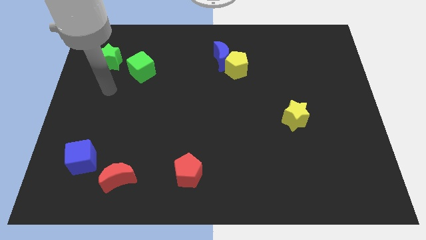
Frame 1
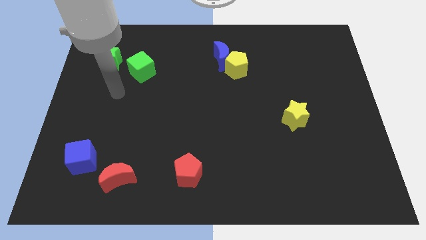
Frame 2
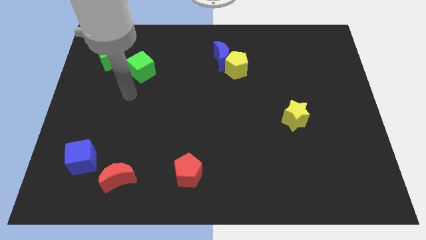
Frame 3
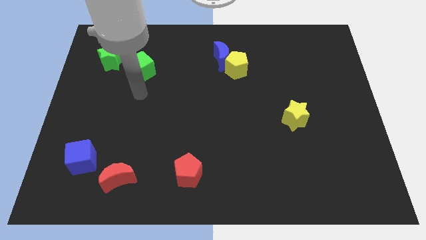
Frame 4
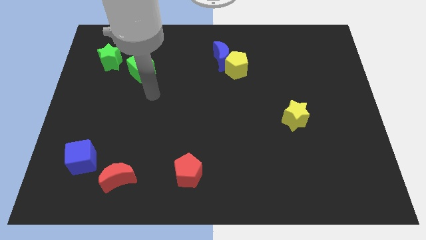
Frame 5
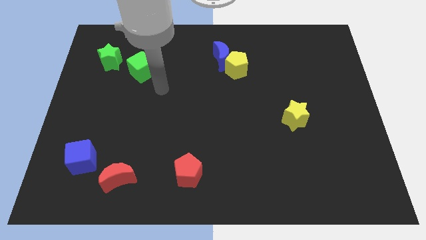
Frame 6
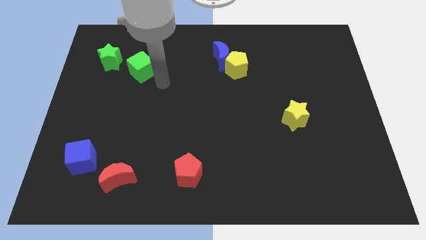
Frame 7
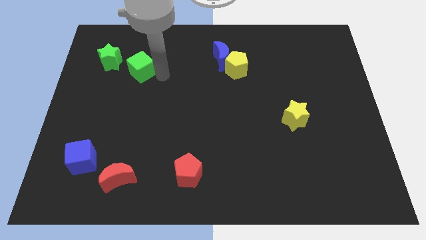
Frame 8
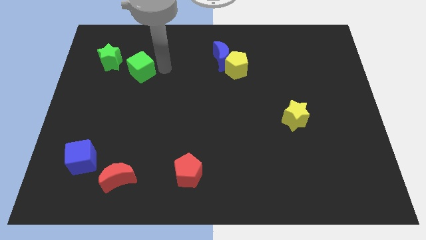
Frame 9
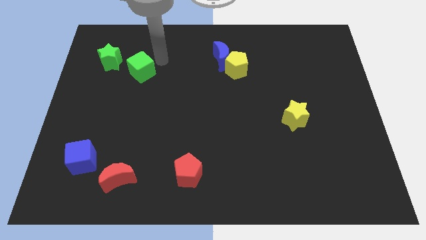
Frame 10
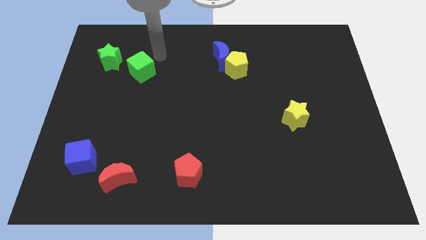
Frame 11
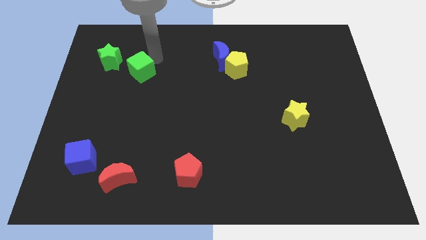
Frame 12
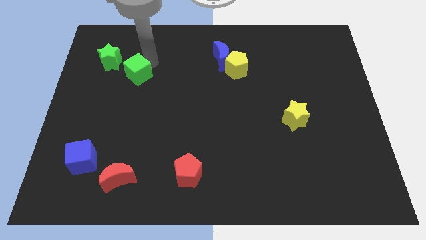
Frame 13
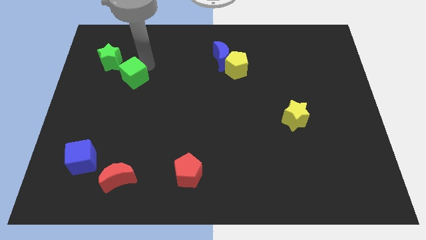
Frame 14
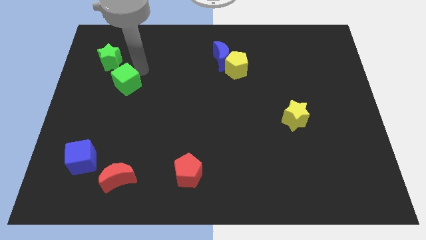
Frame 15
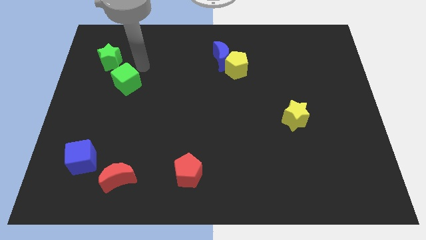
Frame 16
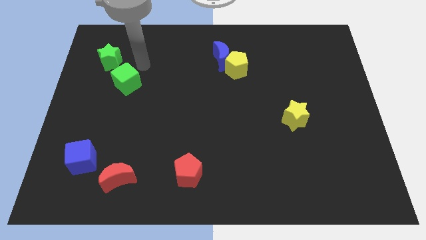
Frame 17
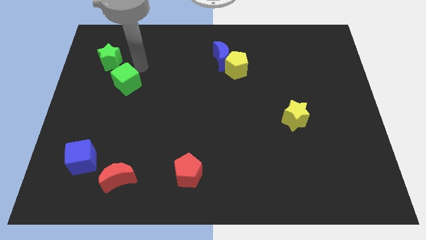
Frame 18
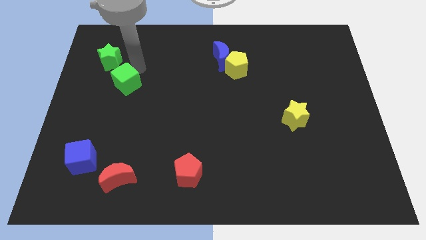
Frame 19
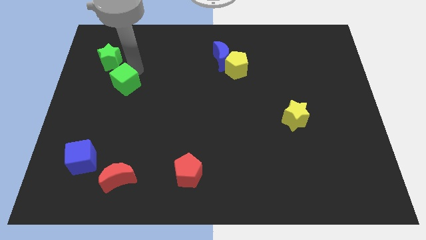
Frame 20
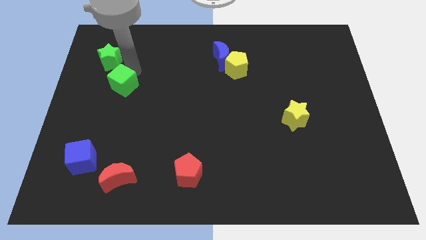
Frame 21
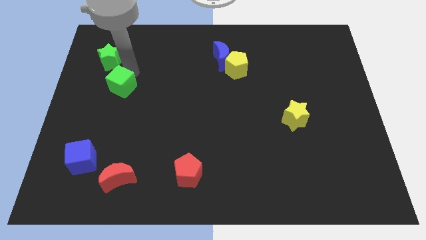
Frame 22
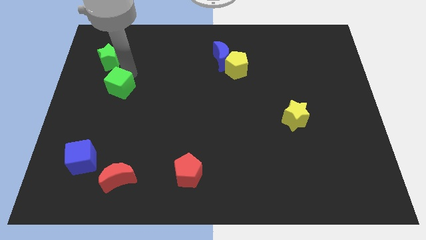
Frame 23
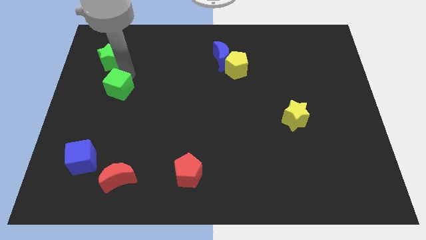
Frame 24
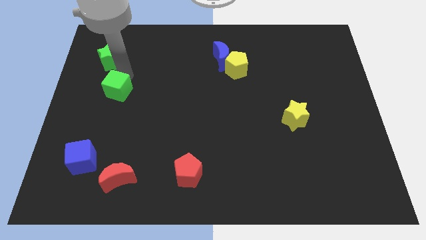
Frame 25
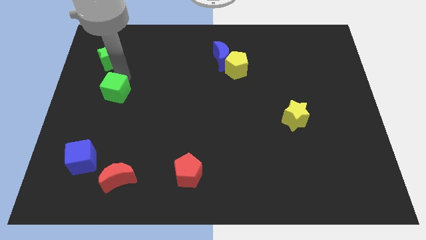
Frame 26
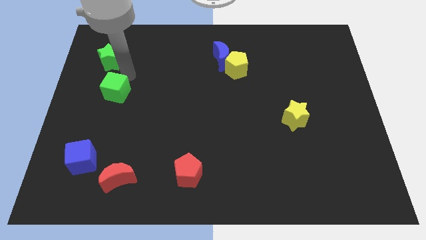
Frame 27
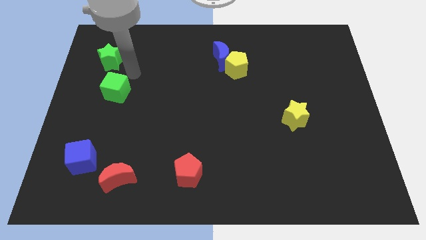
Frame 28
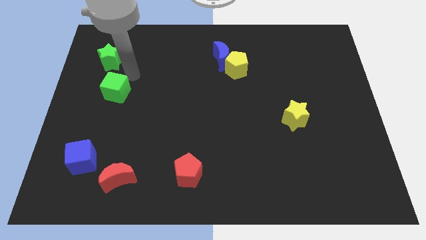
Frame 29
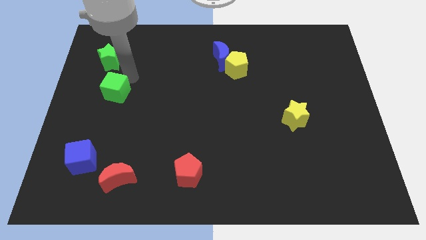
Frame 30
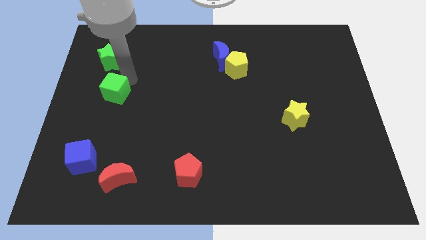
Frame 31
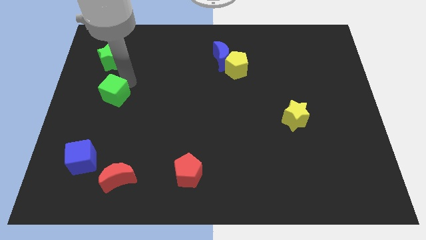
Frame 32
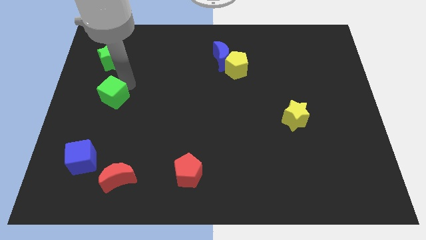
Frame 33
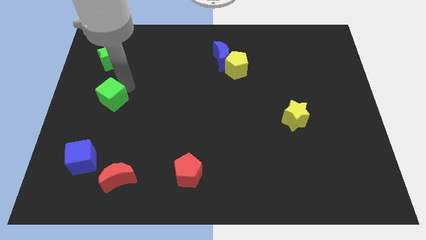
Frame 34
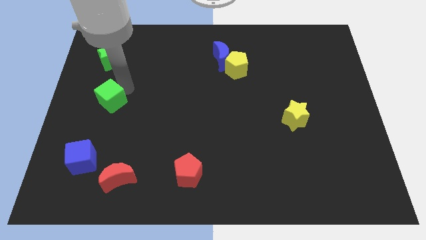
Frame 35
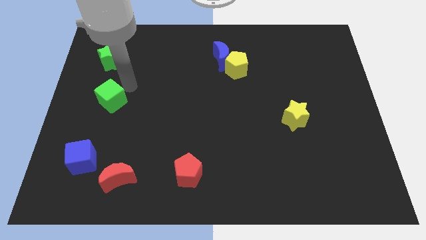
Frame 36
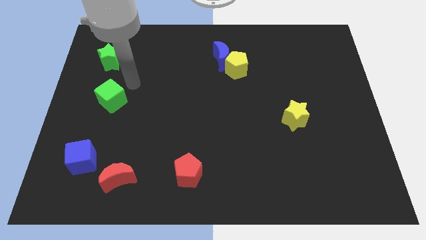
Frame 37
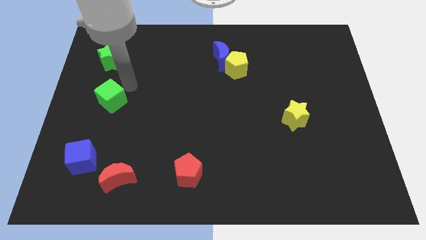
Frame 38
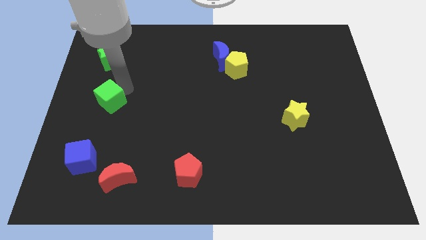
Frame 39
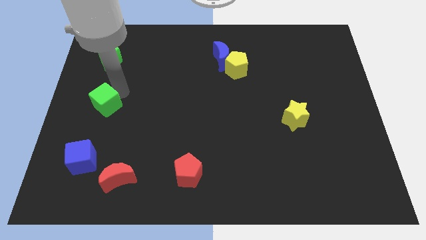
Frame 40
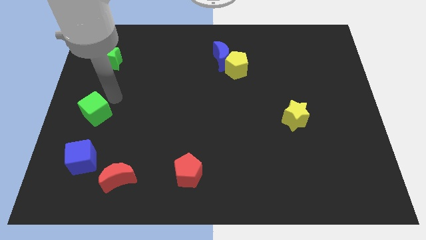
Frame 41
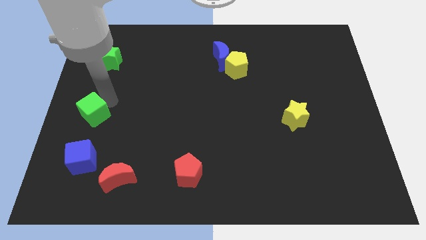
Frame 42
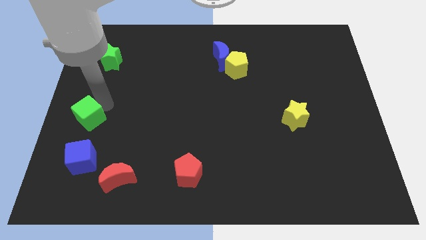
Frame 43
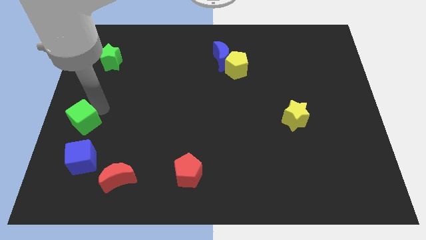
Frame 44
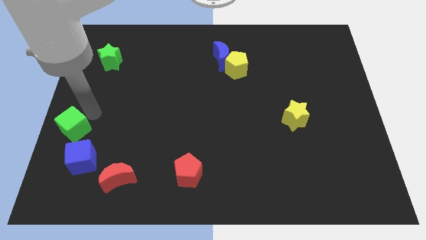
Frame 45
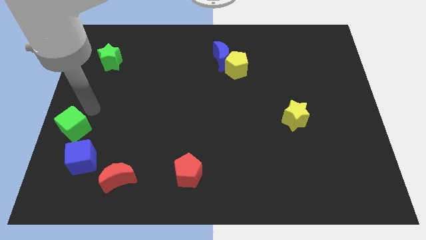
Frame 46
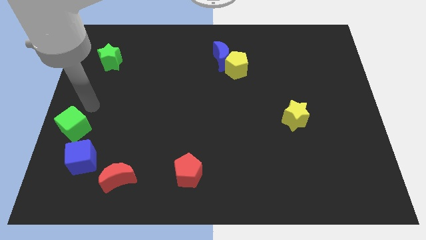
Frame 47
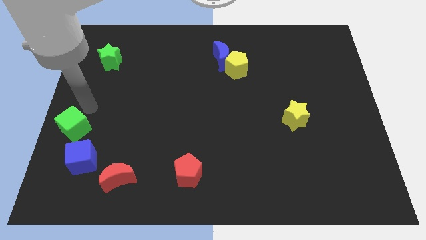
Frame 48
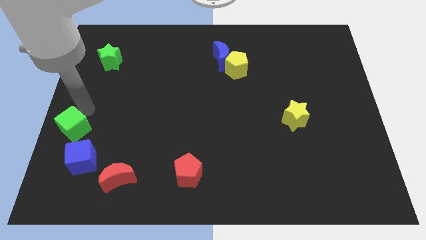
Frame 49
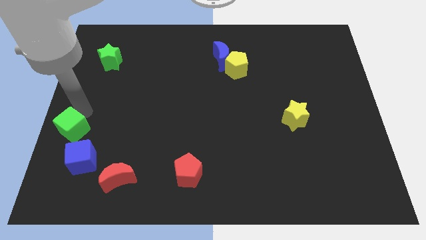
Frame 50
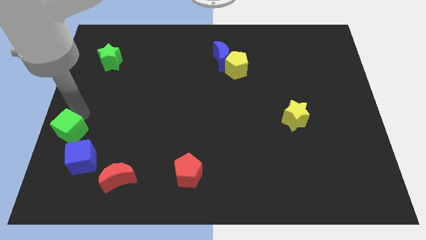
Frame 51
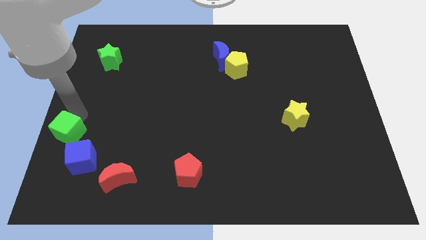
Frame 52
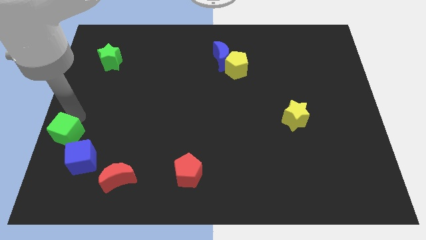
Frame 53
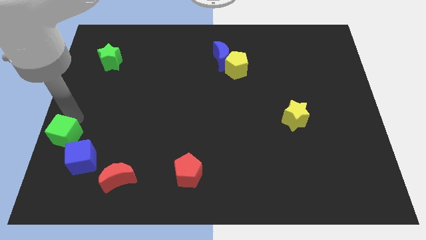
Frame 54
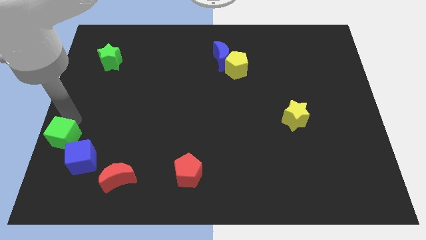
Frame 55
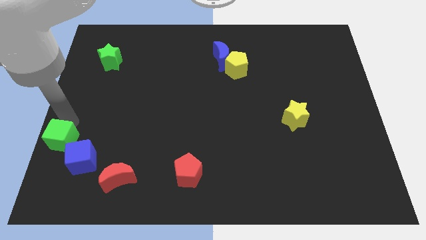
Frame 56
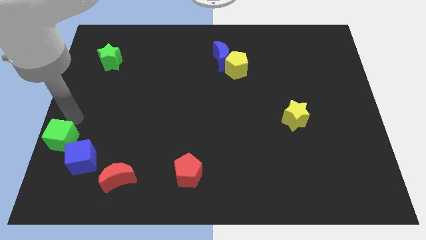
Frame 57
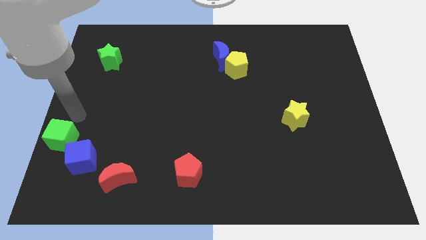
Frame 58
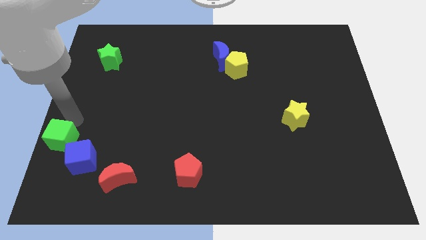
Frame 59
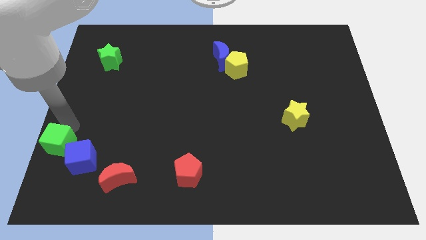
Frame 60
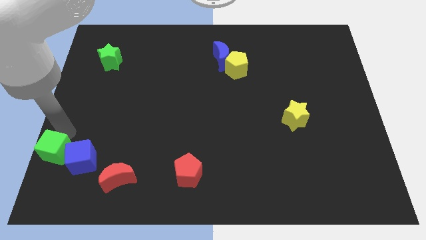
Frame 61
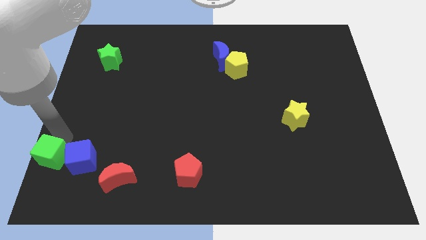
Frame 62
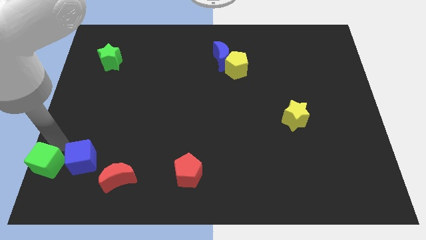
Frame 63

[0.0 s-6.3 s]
slide the green cube to the bottom left corner

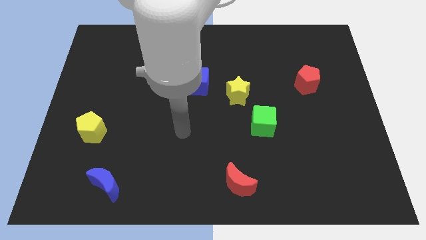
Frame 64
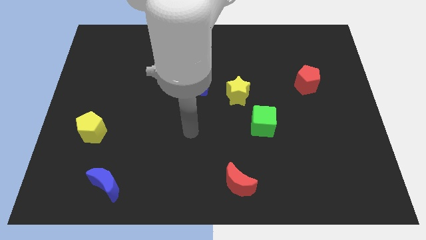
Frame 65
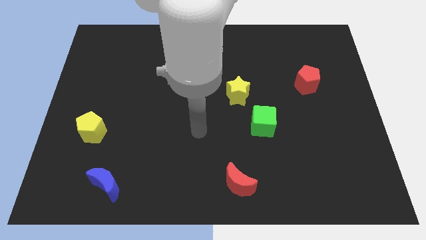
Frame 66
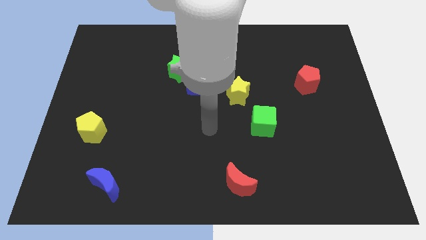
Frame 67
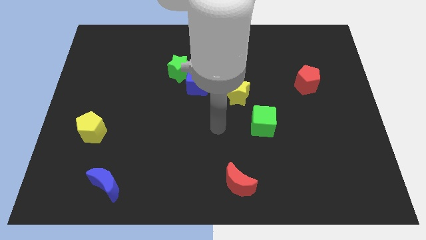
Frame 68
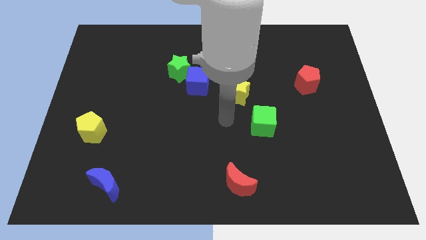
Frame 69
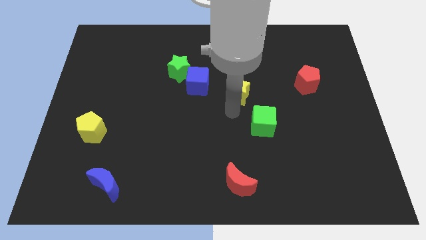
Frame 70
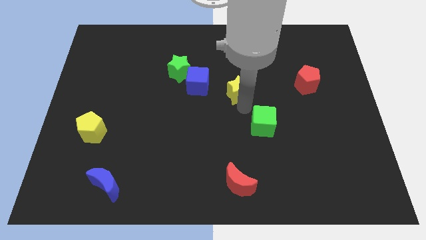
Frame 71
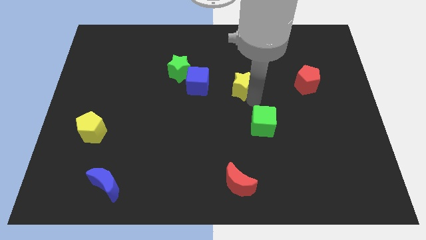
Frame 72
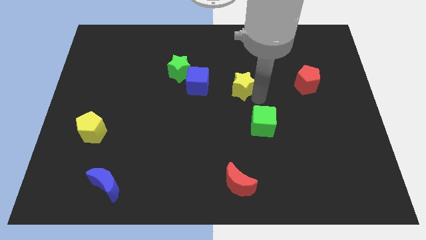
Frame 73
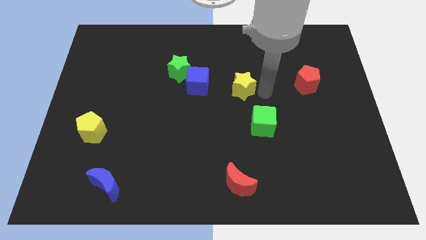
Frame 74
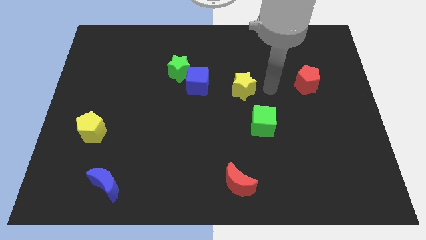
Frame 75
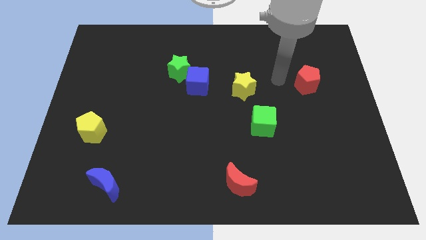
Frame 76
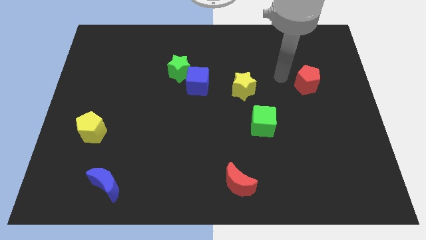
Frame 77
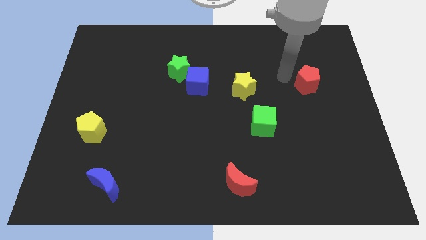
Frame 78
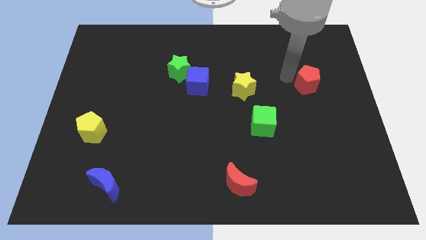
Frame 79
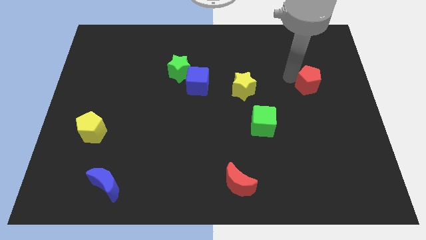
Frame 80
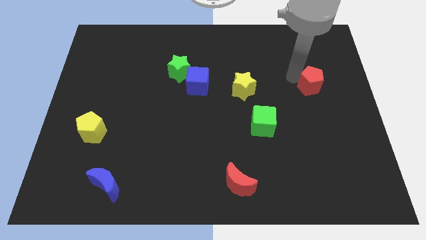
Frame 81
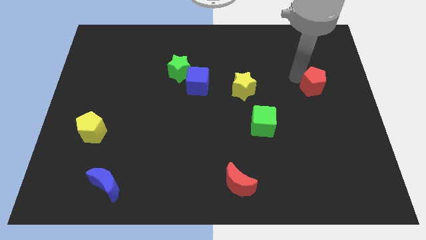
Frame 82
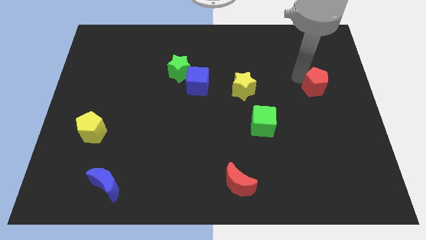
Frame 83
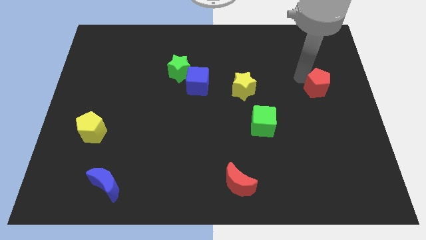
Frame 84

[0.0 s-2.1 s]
slide the red pentagon to the right side
